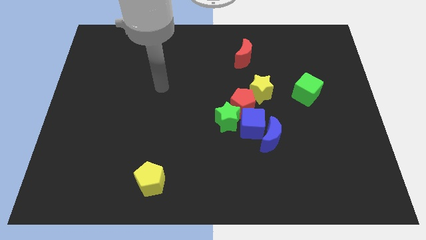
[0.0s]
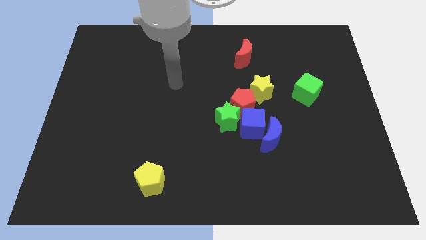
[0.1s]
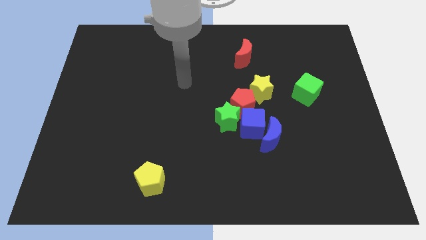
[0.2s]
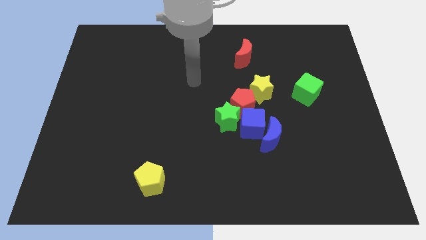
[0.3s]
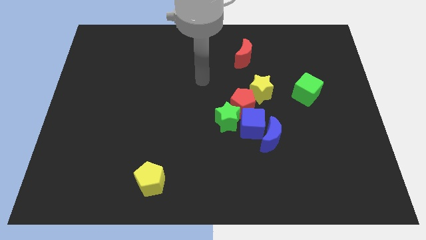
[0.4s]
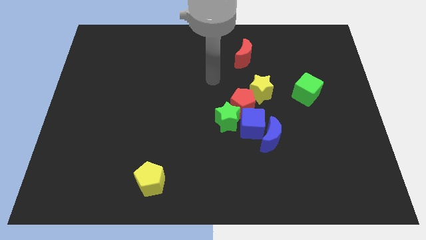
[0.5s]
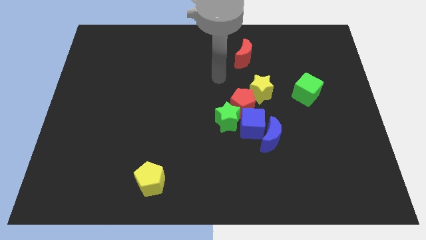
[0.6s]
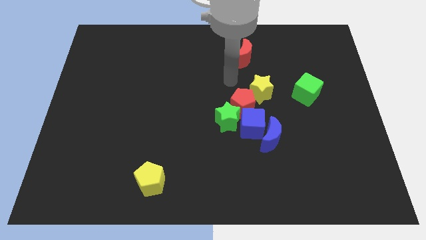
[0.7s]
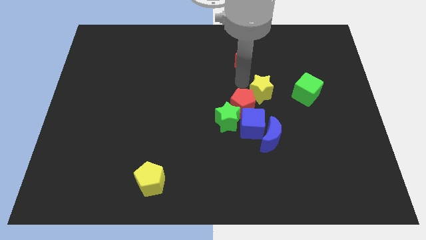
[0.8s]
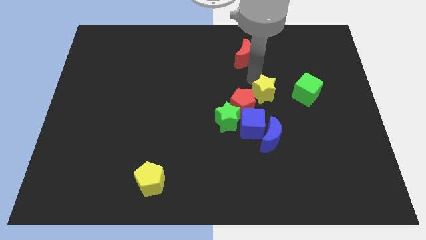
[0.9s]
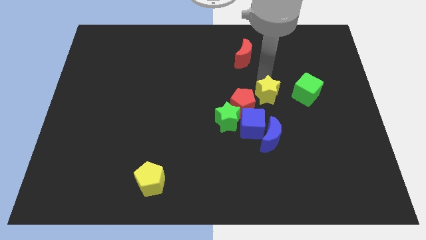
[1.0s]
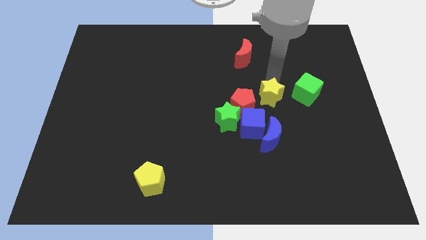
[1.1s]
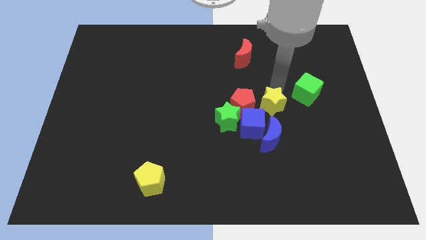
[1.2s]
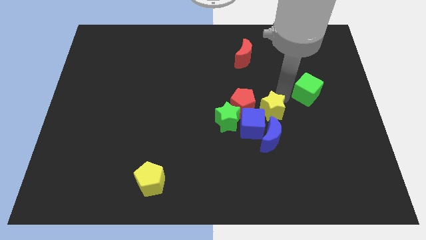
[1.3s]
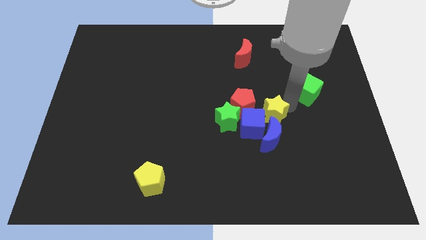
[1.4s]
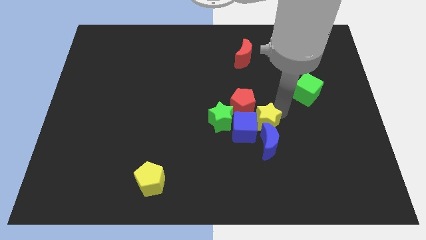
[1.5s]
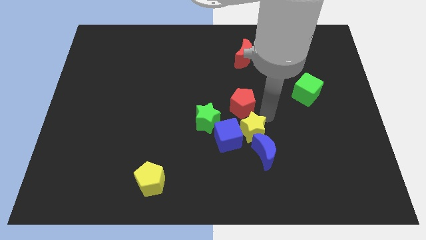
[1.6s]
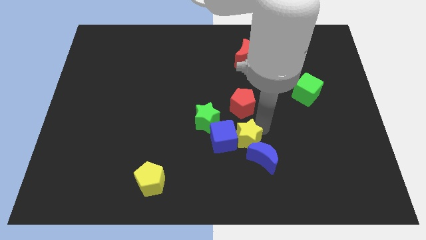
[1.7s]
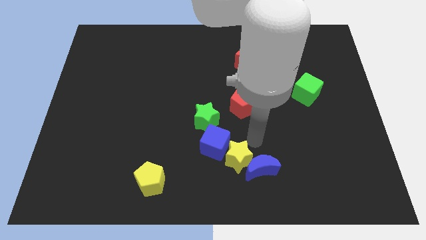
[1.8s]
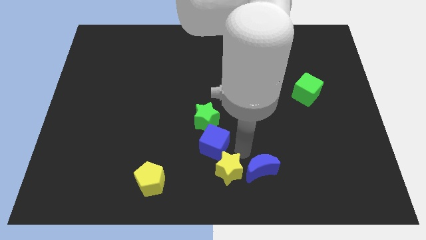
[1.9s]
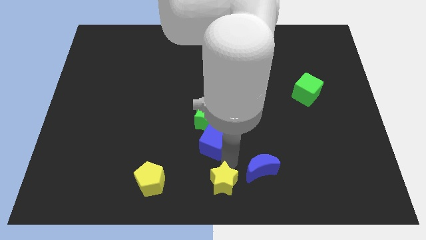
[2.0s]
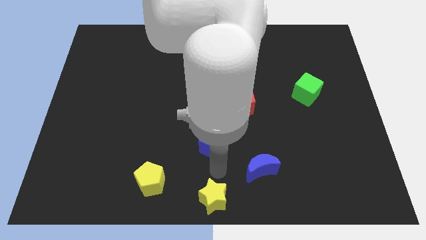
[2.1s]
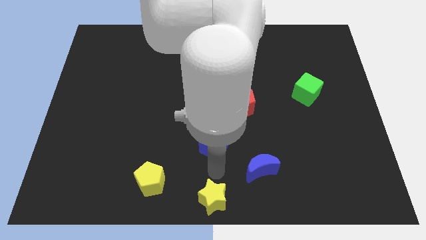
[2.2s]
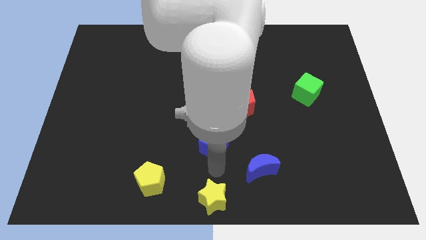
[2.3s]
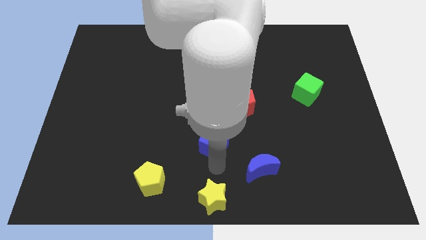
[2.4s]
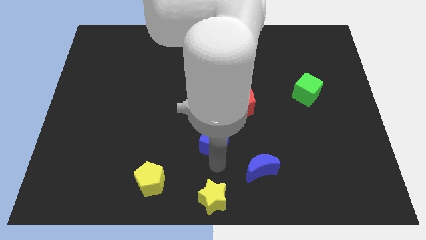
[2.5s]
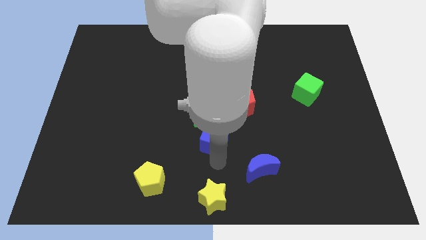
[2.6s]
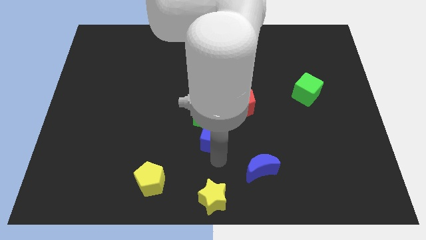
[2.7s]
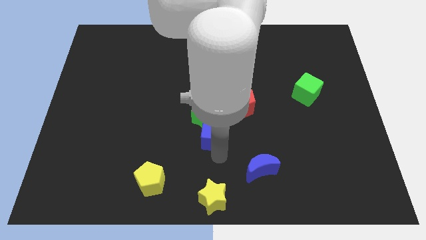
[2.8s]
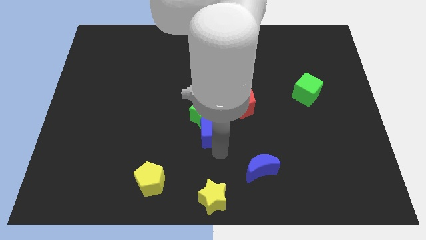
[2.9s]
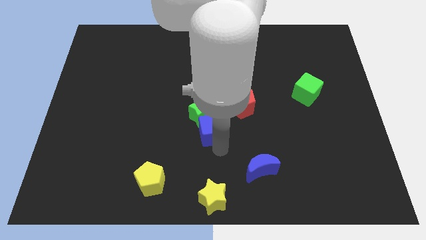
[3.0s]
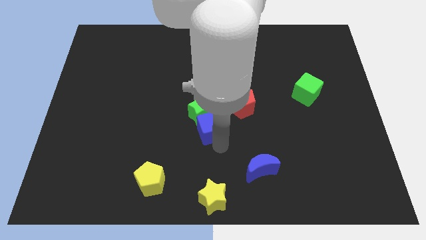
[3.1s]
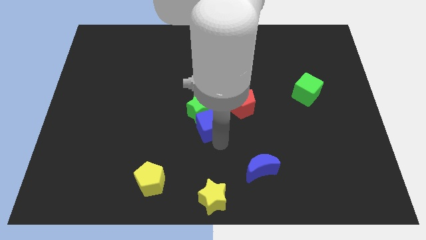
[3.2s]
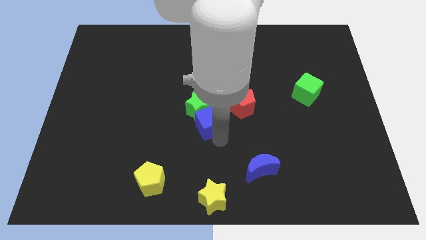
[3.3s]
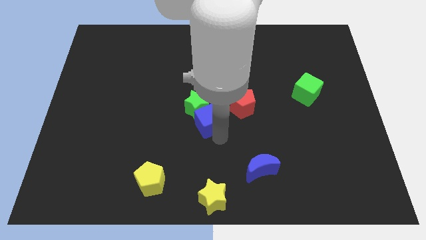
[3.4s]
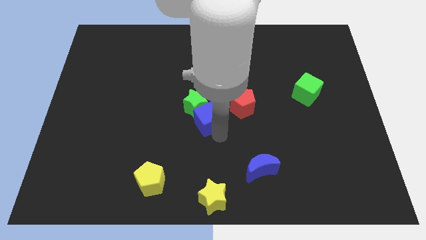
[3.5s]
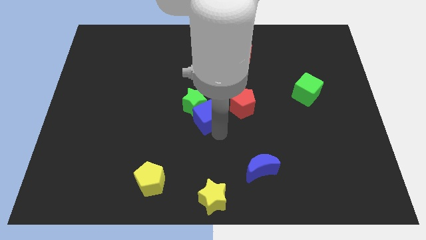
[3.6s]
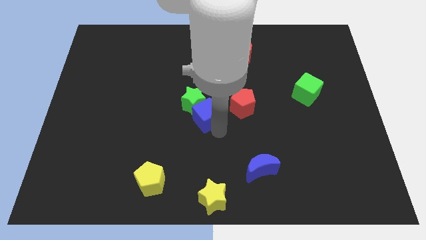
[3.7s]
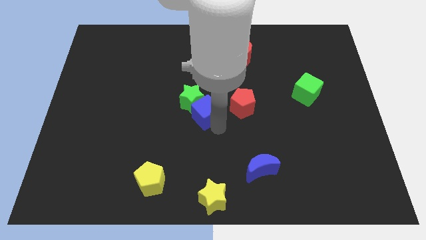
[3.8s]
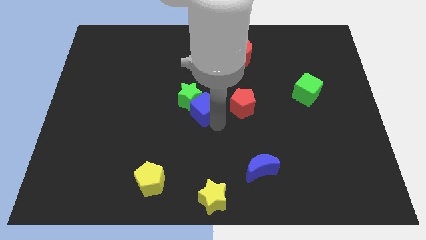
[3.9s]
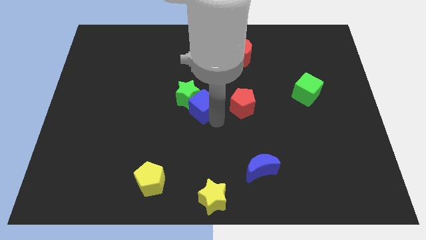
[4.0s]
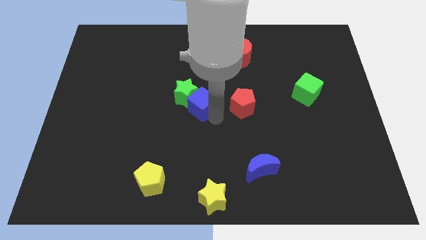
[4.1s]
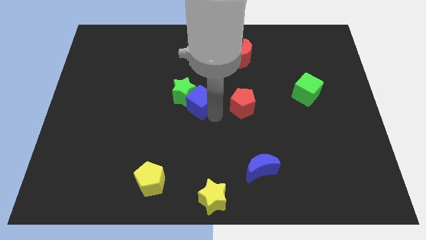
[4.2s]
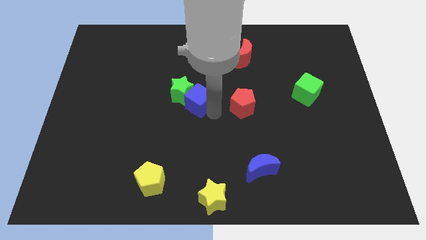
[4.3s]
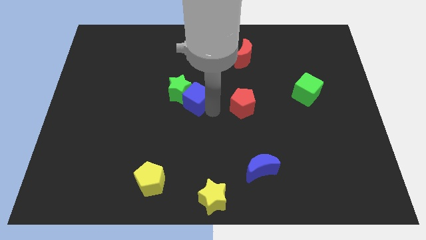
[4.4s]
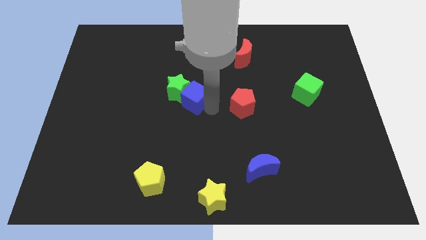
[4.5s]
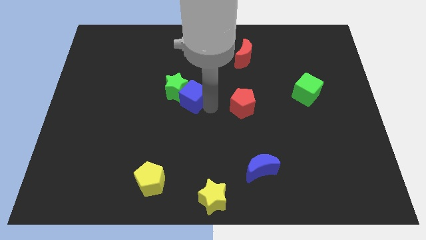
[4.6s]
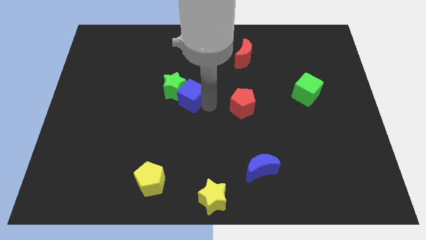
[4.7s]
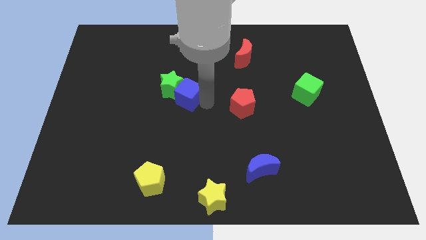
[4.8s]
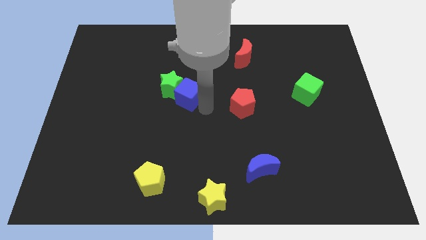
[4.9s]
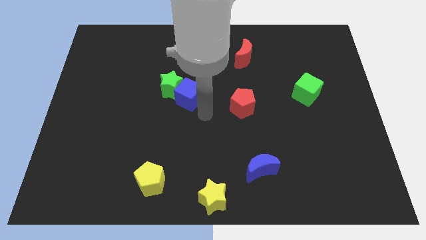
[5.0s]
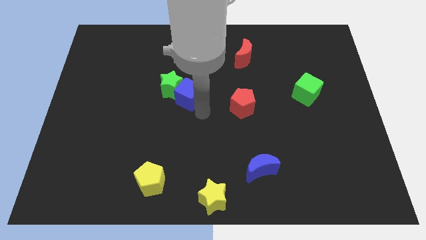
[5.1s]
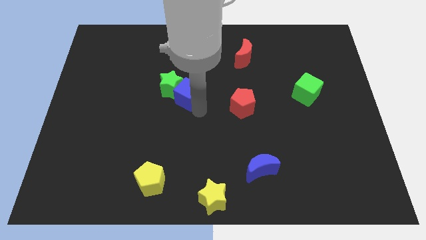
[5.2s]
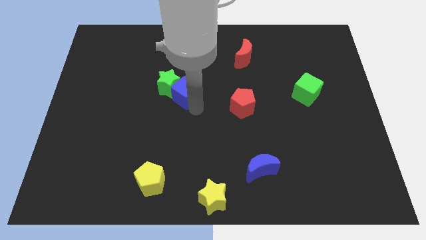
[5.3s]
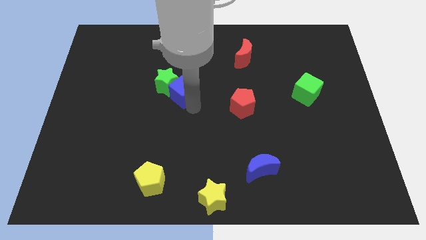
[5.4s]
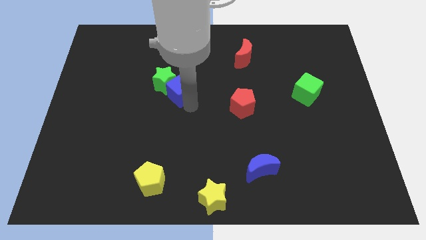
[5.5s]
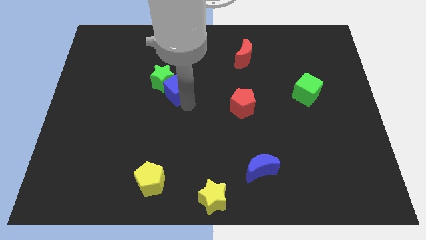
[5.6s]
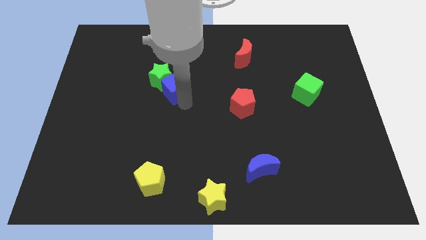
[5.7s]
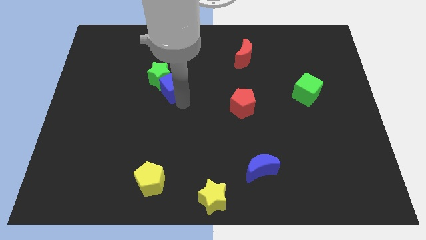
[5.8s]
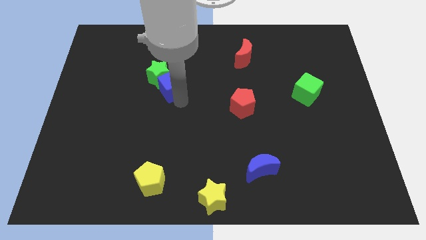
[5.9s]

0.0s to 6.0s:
move the blue cube upwards and then left

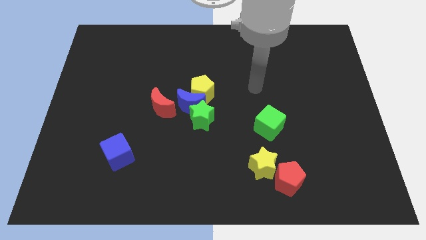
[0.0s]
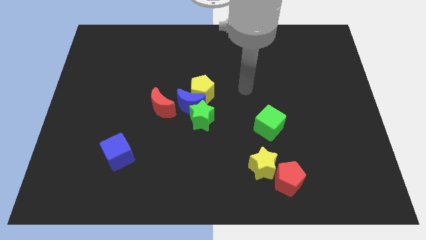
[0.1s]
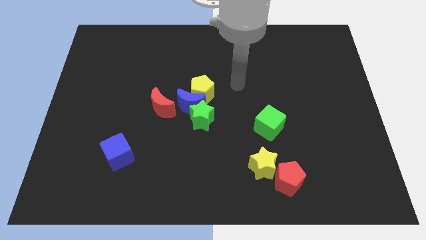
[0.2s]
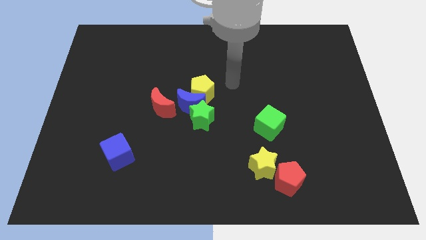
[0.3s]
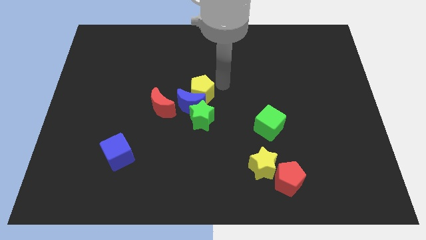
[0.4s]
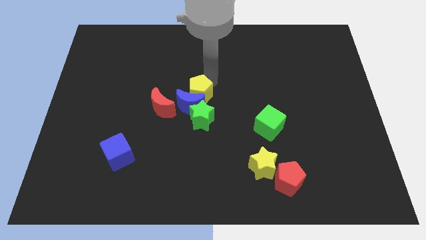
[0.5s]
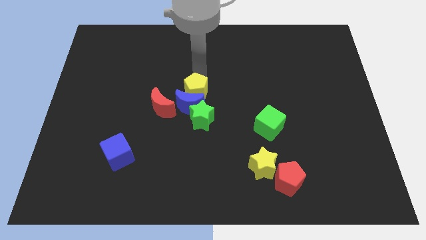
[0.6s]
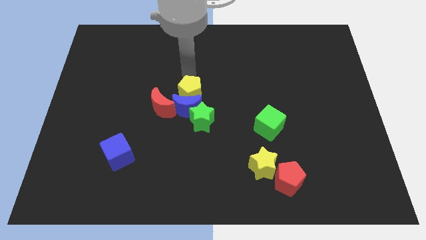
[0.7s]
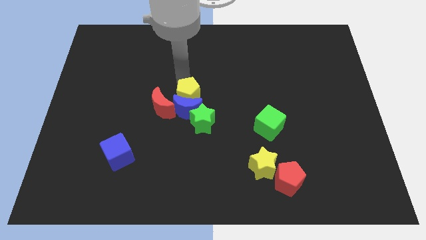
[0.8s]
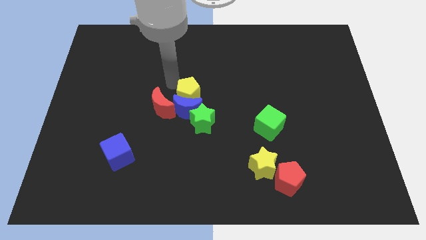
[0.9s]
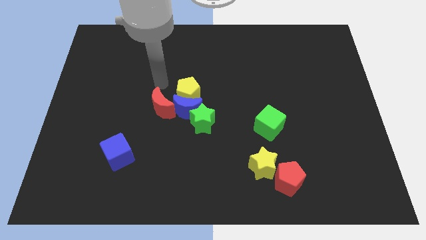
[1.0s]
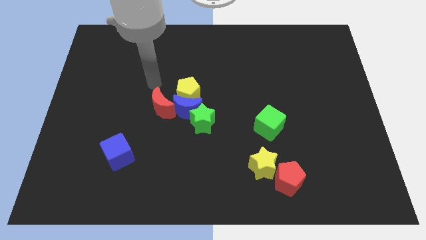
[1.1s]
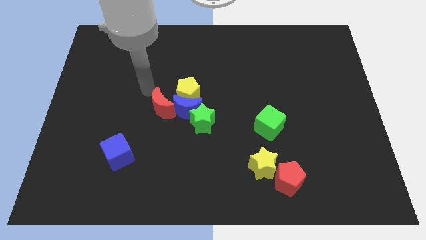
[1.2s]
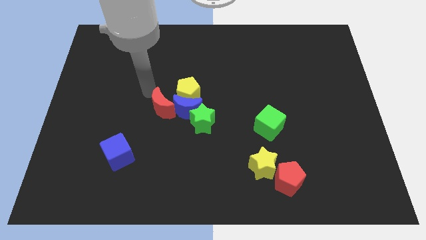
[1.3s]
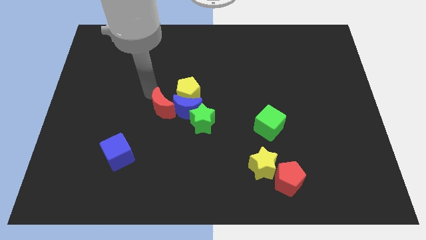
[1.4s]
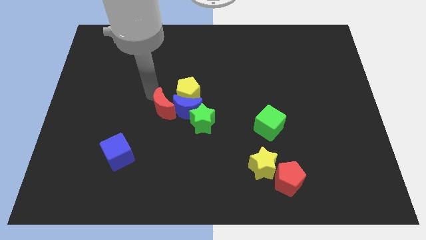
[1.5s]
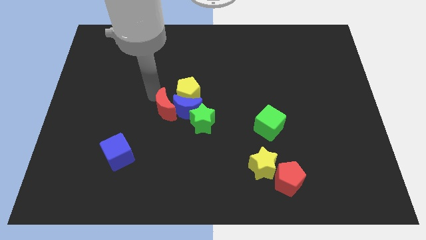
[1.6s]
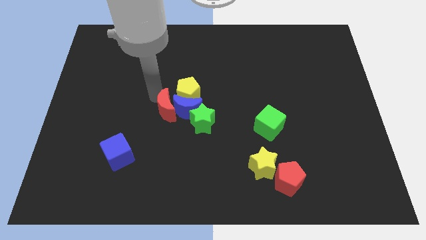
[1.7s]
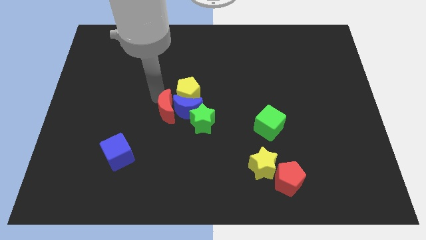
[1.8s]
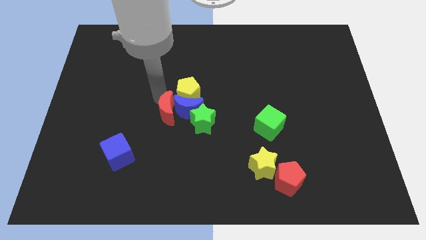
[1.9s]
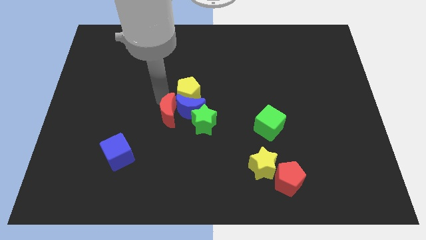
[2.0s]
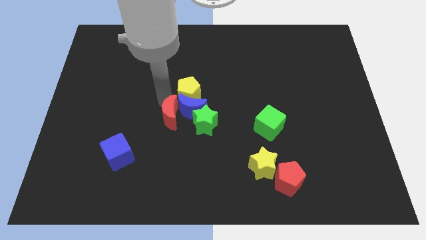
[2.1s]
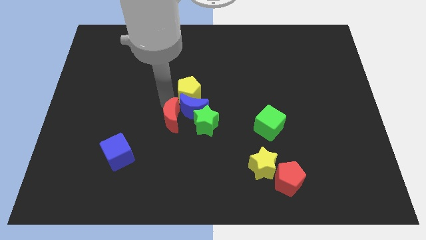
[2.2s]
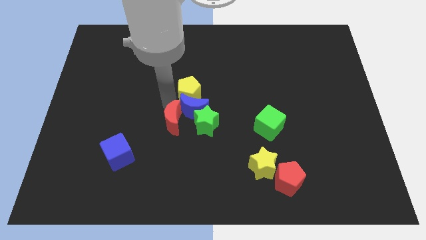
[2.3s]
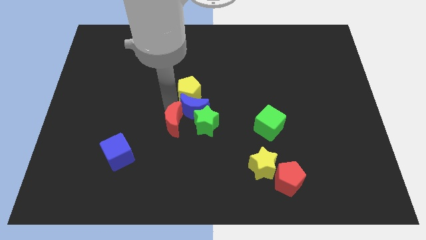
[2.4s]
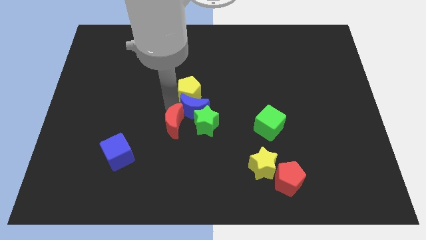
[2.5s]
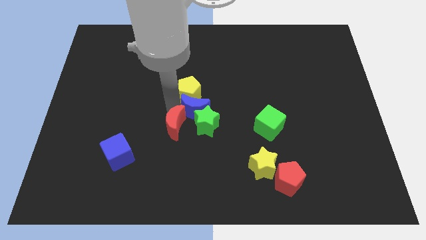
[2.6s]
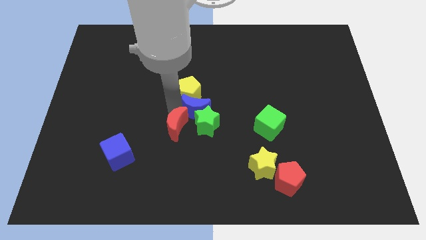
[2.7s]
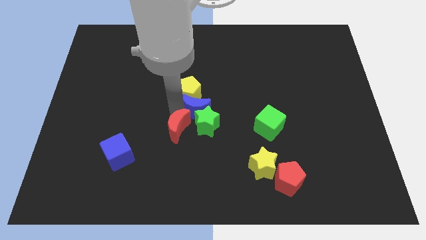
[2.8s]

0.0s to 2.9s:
slightly push the red moon down and then right
